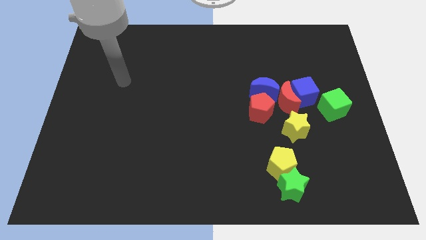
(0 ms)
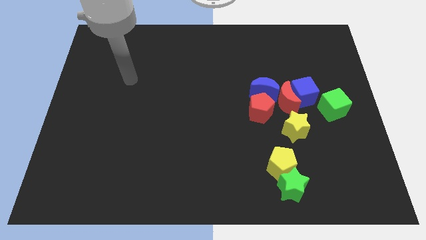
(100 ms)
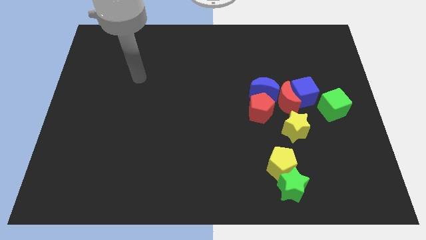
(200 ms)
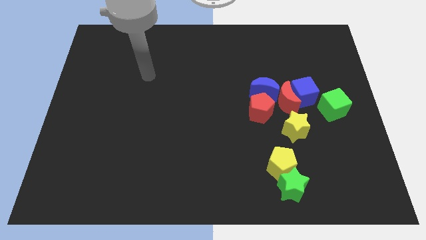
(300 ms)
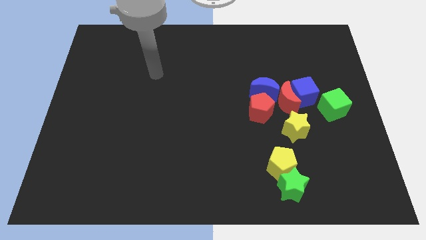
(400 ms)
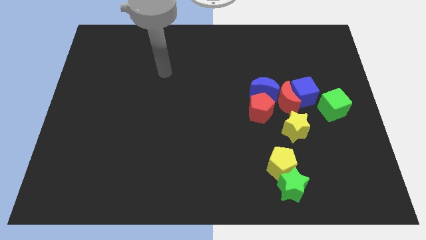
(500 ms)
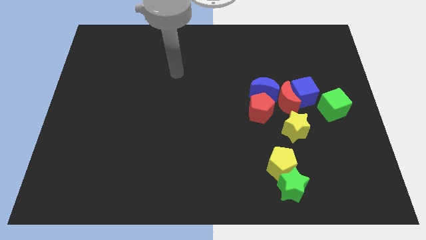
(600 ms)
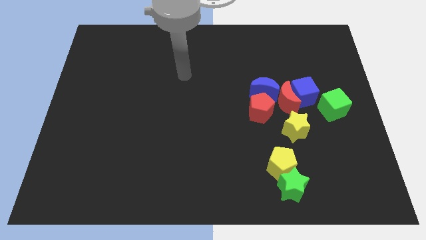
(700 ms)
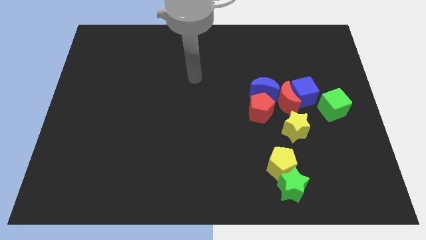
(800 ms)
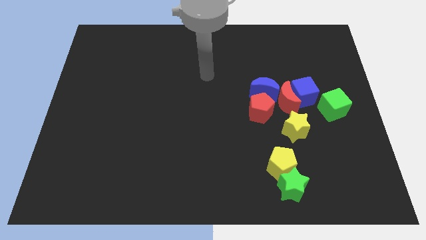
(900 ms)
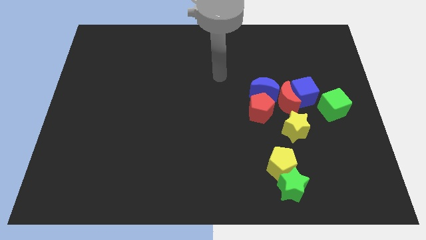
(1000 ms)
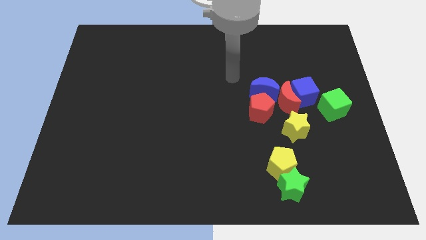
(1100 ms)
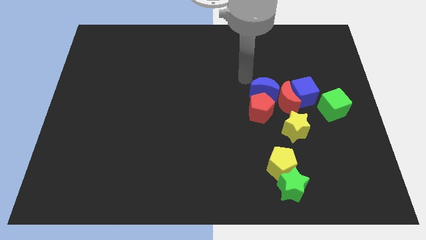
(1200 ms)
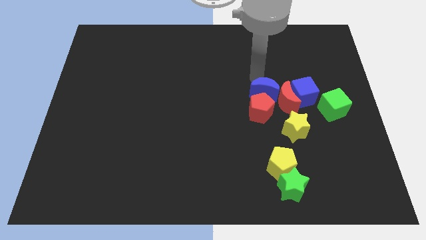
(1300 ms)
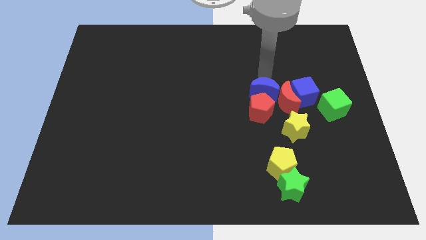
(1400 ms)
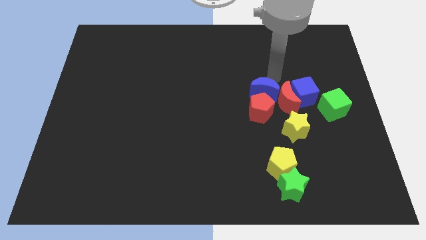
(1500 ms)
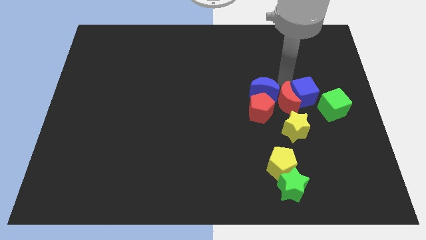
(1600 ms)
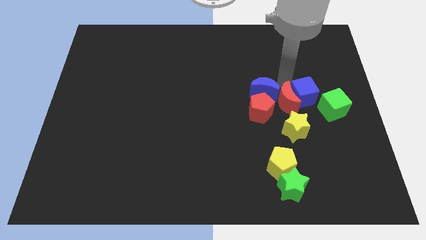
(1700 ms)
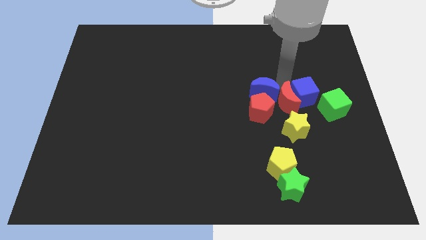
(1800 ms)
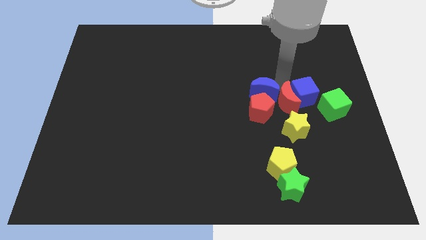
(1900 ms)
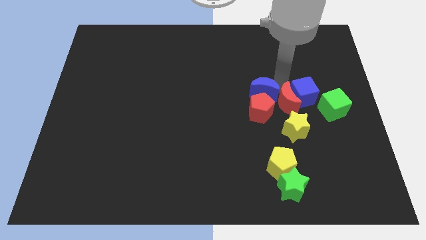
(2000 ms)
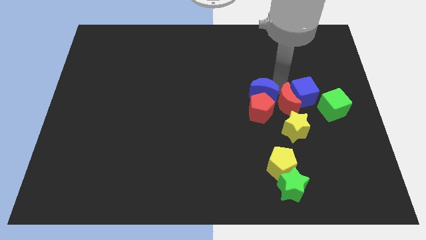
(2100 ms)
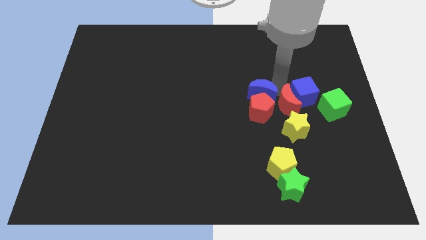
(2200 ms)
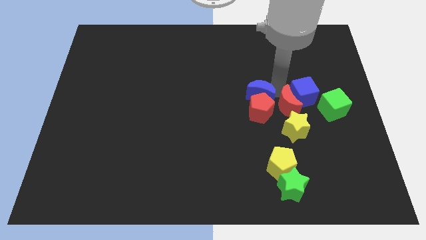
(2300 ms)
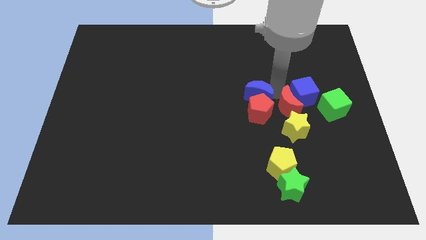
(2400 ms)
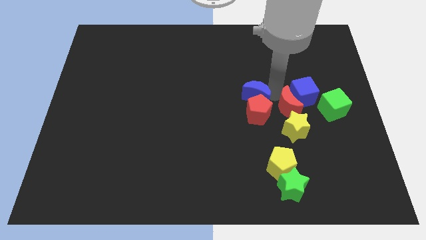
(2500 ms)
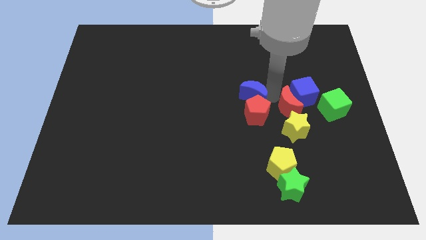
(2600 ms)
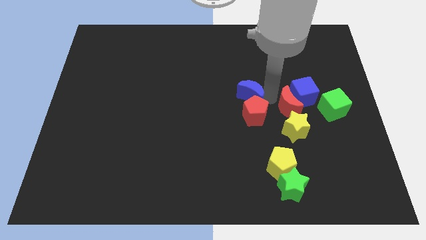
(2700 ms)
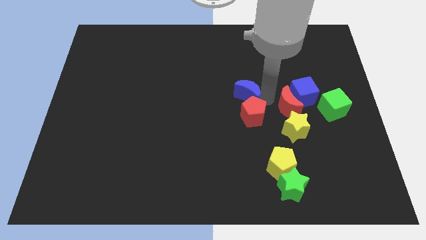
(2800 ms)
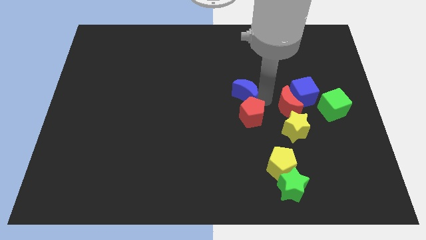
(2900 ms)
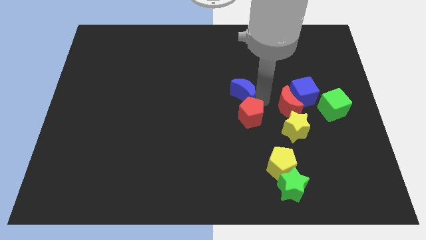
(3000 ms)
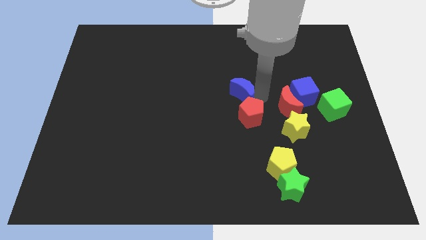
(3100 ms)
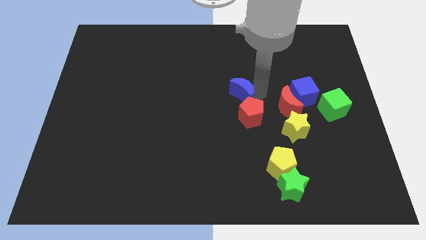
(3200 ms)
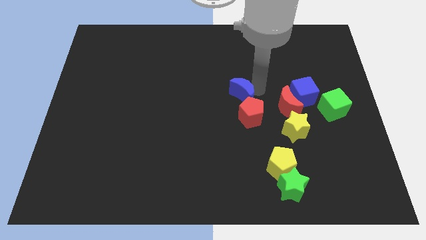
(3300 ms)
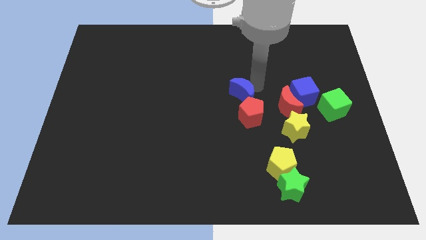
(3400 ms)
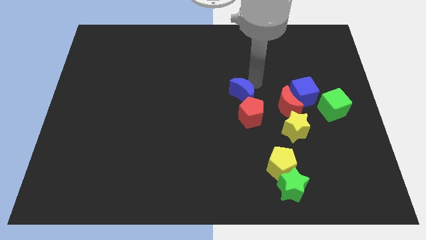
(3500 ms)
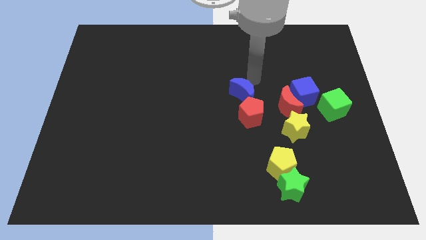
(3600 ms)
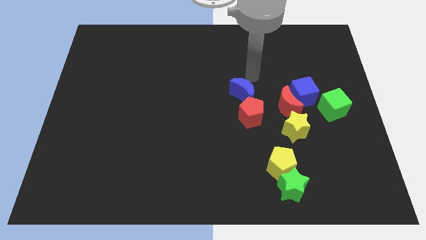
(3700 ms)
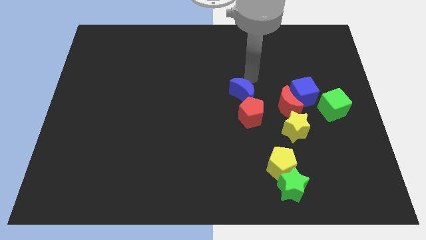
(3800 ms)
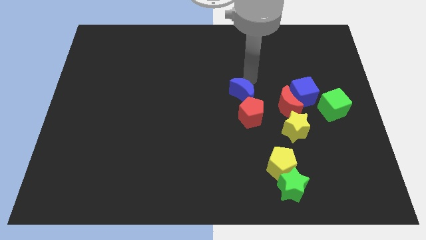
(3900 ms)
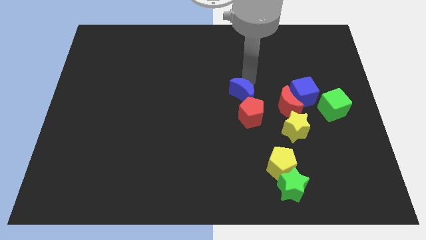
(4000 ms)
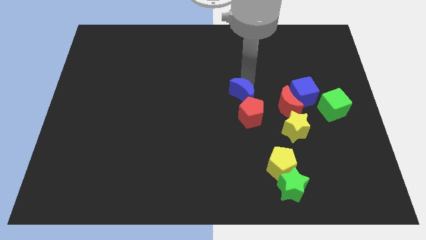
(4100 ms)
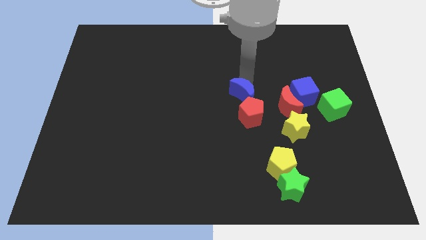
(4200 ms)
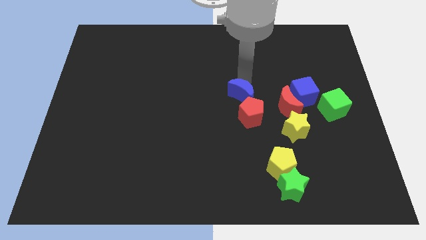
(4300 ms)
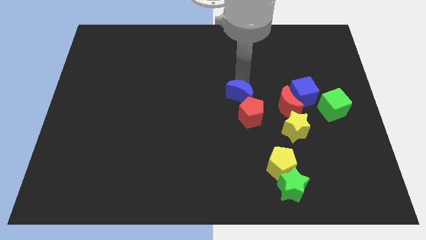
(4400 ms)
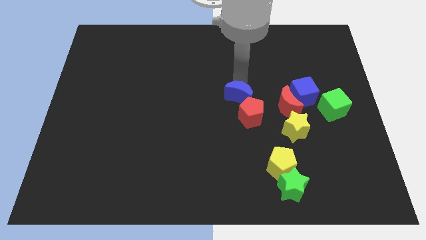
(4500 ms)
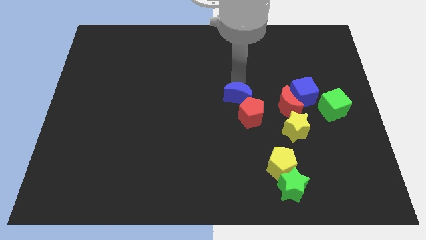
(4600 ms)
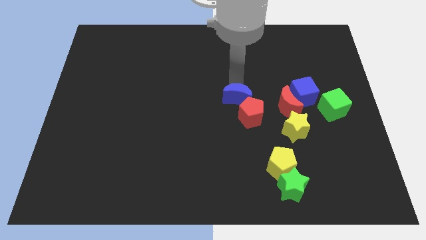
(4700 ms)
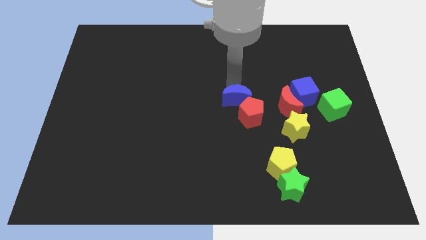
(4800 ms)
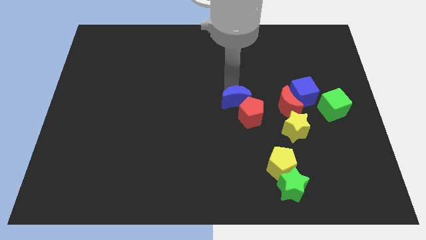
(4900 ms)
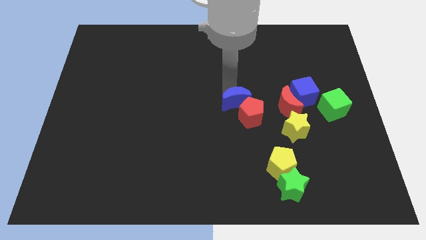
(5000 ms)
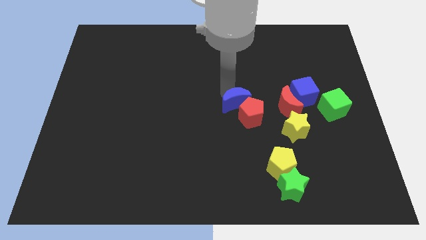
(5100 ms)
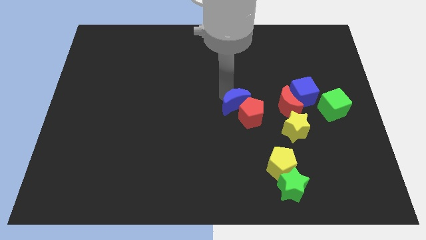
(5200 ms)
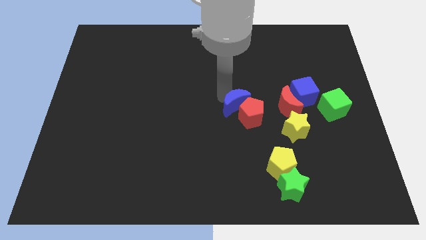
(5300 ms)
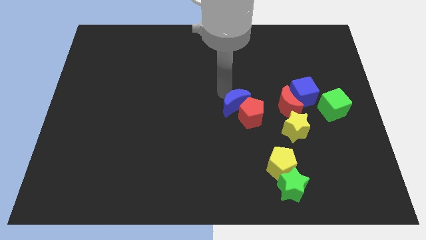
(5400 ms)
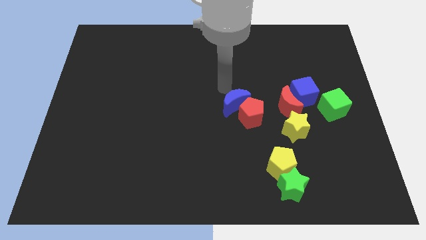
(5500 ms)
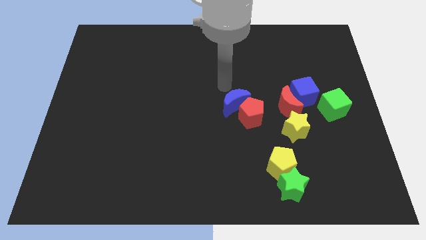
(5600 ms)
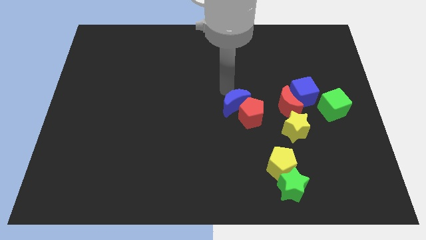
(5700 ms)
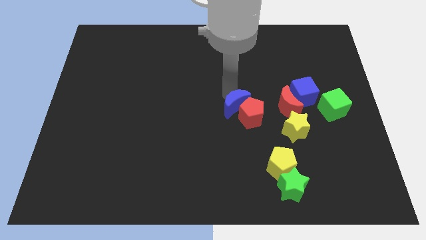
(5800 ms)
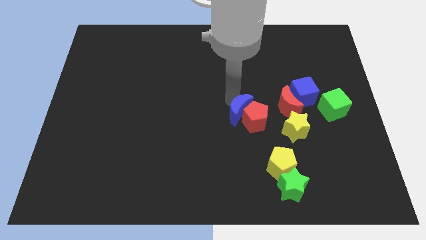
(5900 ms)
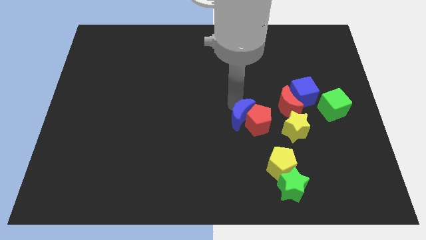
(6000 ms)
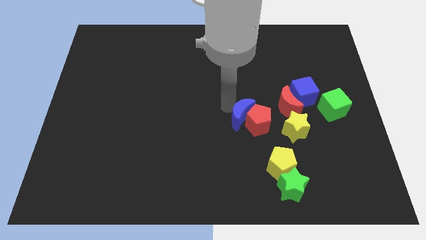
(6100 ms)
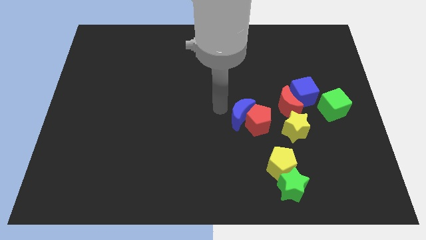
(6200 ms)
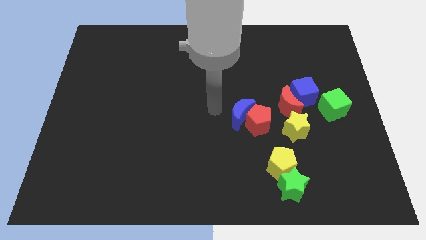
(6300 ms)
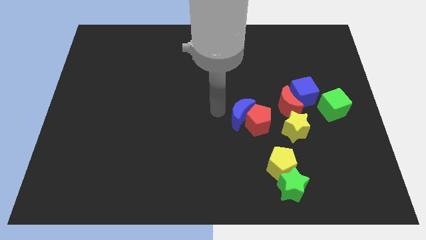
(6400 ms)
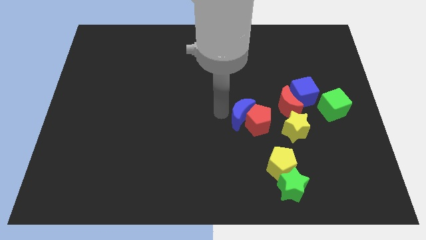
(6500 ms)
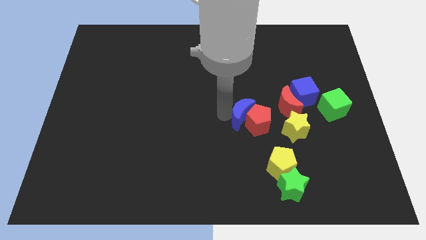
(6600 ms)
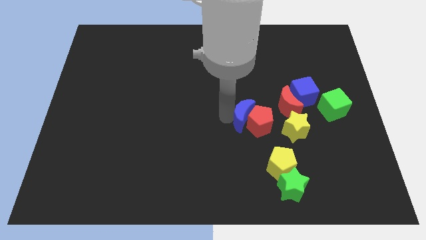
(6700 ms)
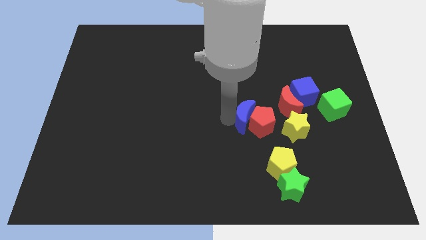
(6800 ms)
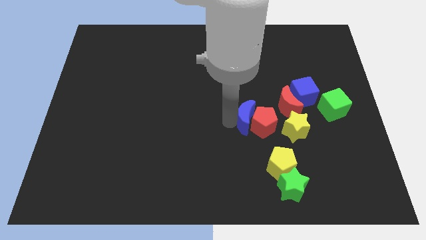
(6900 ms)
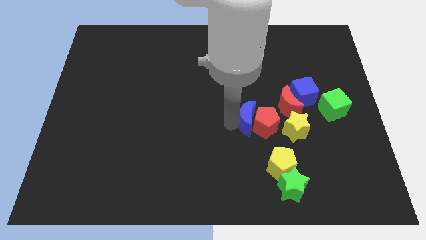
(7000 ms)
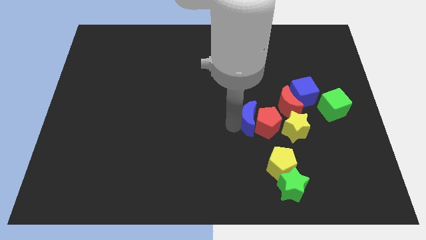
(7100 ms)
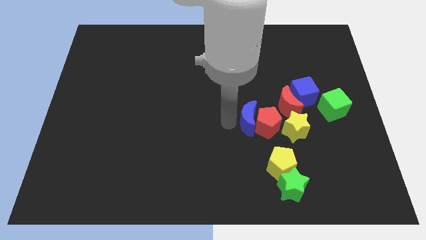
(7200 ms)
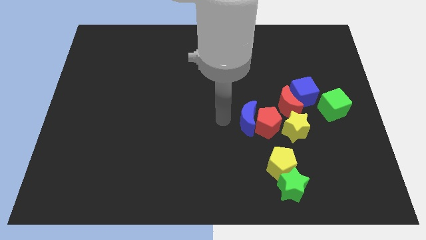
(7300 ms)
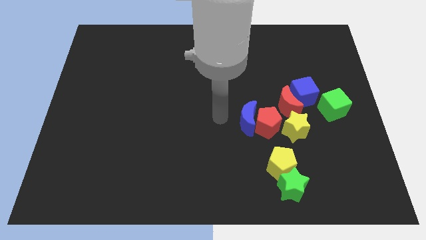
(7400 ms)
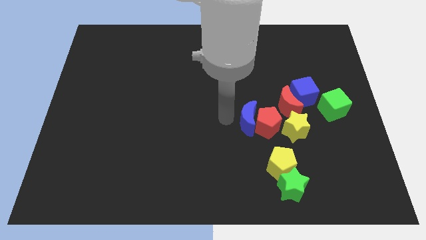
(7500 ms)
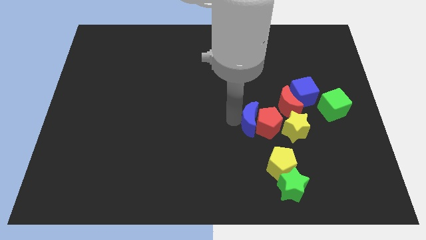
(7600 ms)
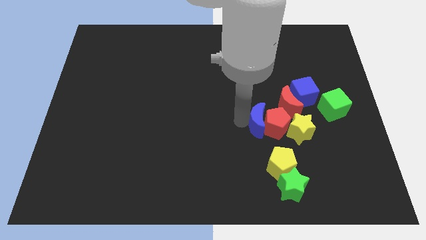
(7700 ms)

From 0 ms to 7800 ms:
move the blue moon to the top side of the yellow pentagon
